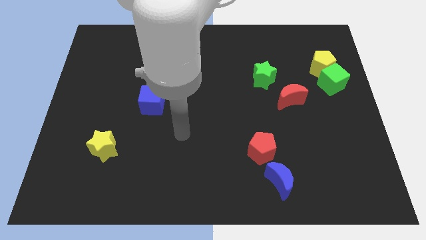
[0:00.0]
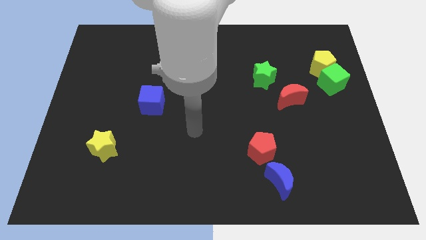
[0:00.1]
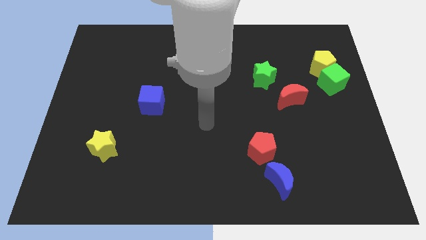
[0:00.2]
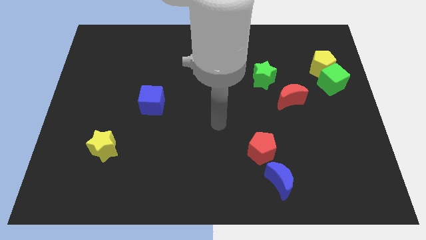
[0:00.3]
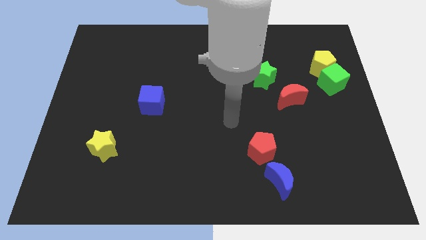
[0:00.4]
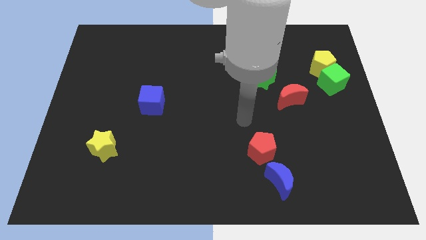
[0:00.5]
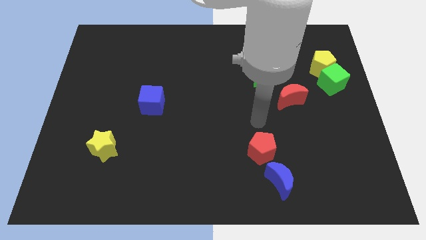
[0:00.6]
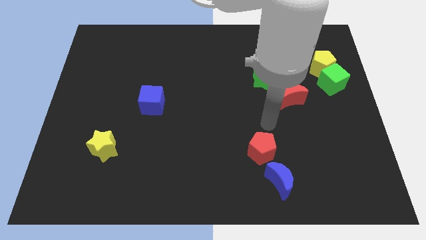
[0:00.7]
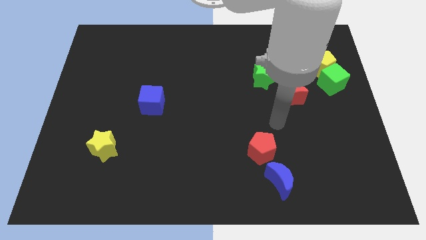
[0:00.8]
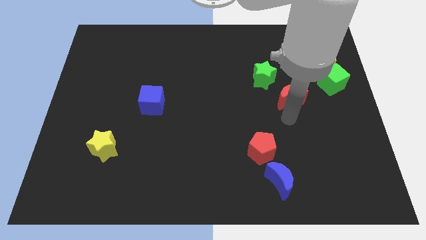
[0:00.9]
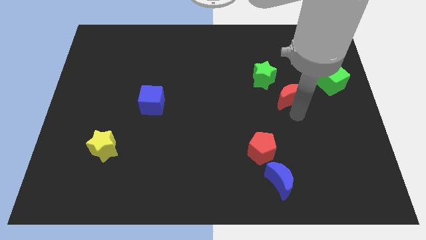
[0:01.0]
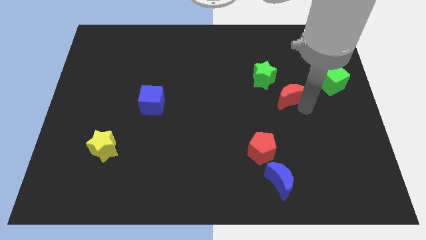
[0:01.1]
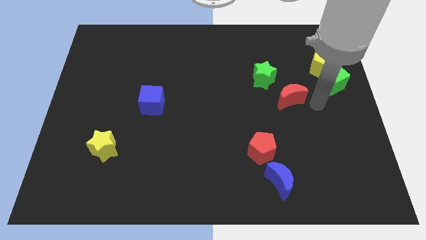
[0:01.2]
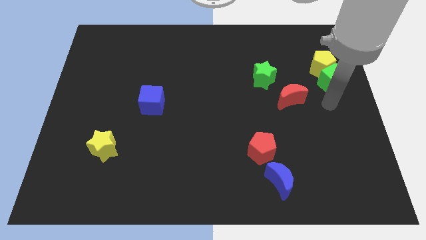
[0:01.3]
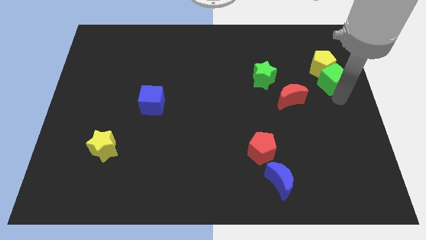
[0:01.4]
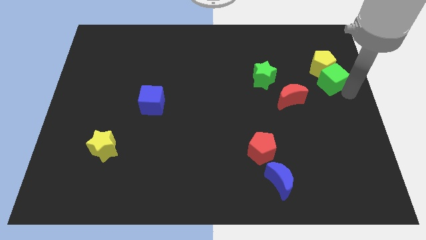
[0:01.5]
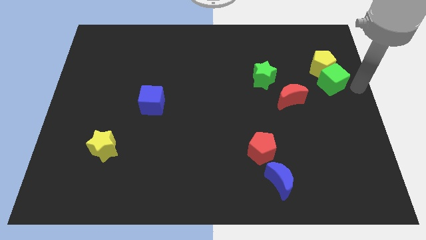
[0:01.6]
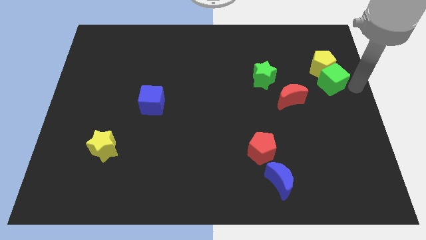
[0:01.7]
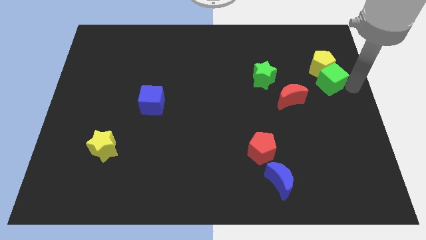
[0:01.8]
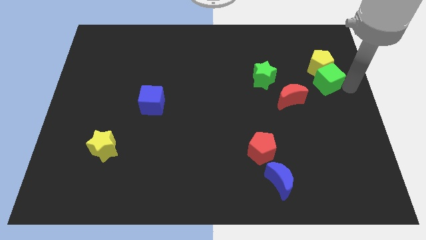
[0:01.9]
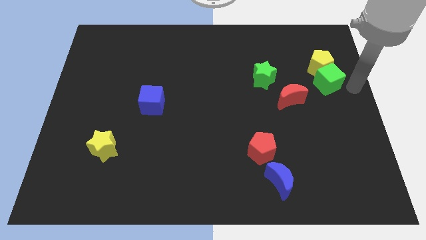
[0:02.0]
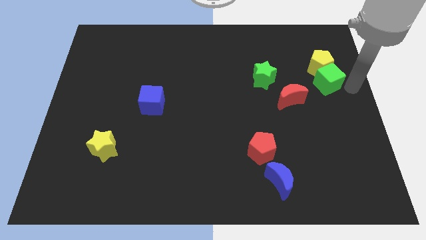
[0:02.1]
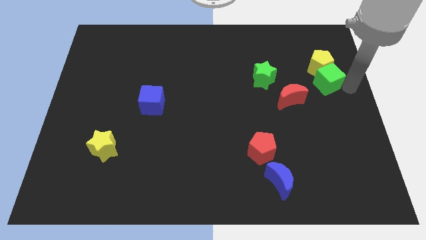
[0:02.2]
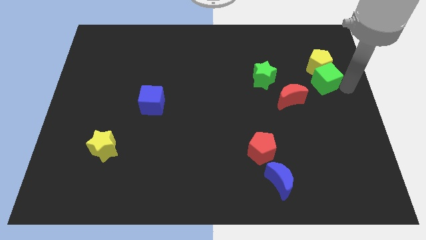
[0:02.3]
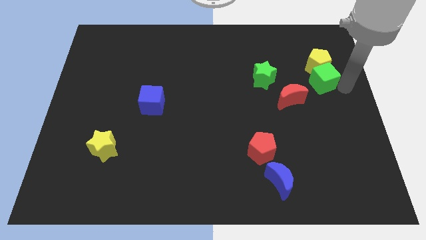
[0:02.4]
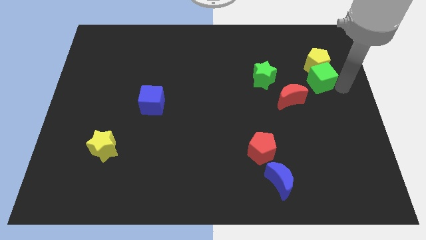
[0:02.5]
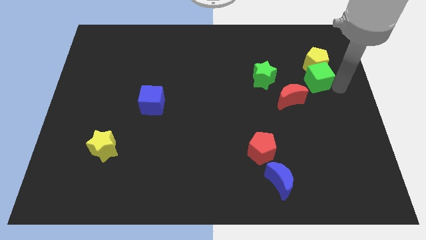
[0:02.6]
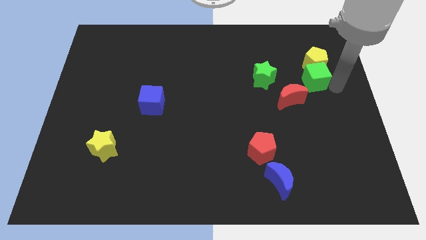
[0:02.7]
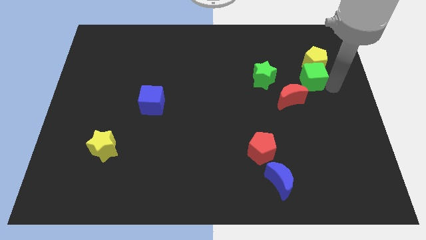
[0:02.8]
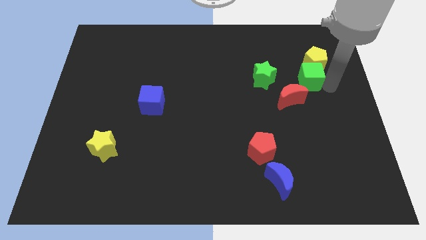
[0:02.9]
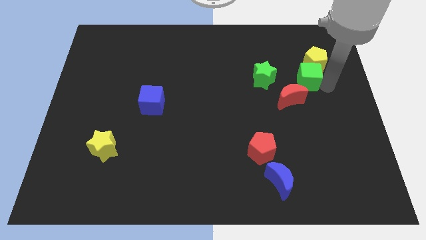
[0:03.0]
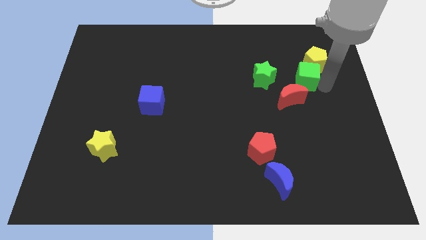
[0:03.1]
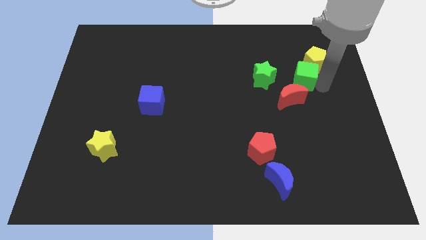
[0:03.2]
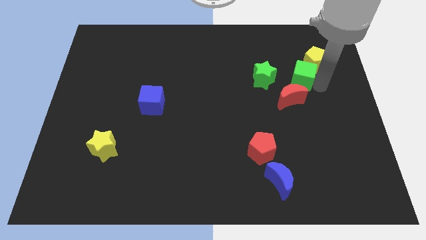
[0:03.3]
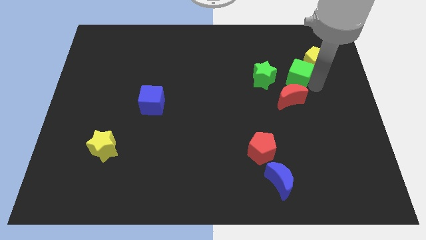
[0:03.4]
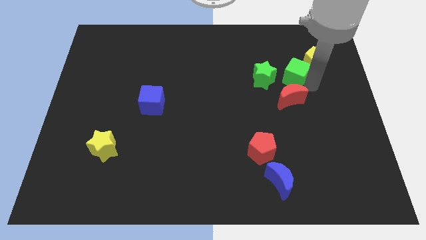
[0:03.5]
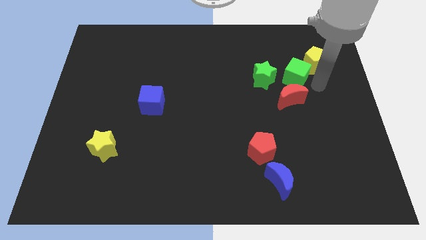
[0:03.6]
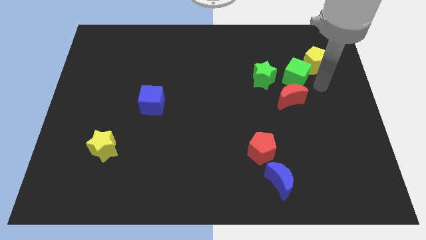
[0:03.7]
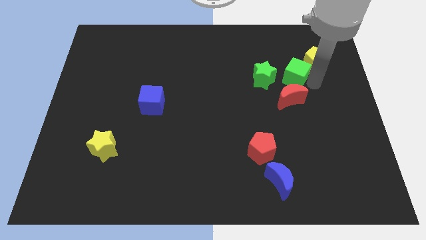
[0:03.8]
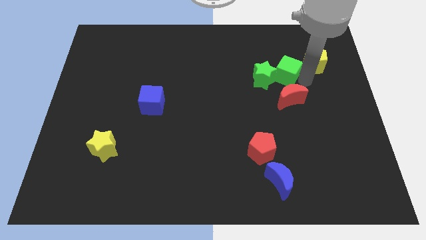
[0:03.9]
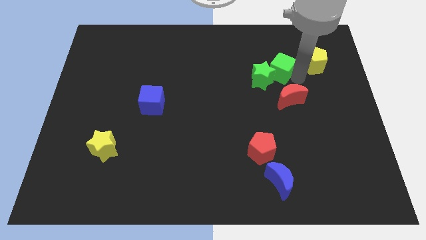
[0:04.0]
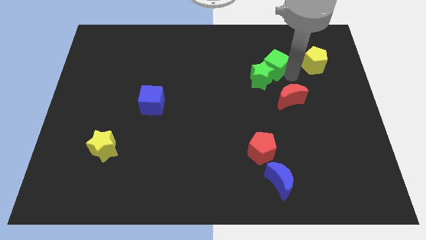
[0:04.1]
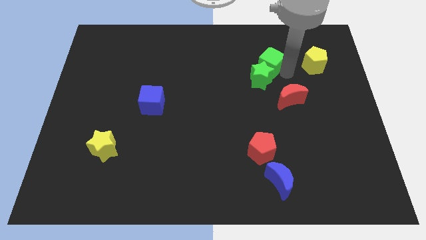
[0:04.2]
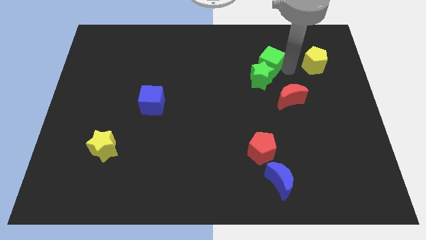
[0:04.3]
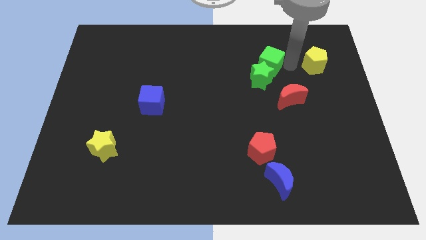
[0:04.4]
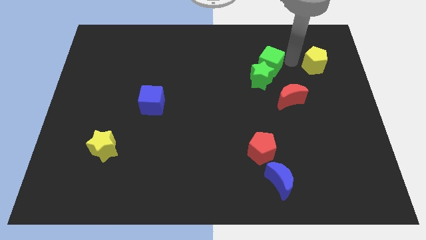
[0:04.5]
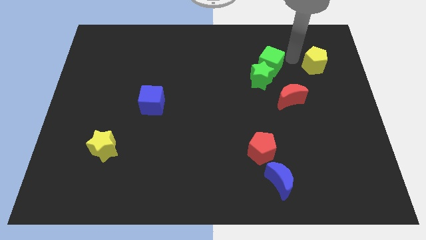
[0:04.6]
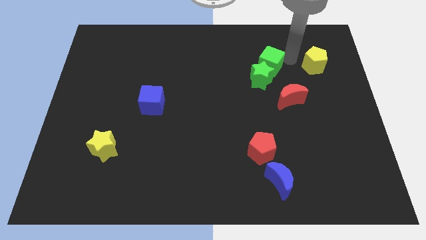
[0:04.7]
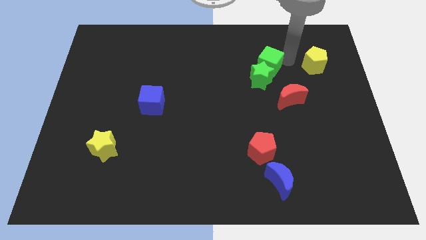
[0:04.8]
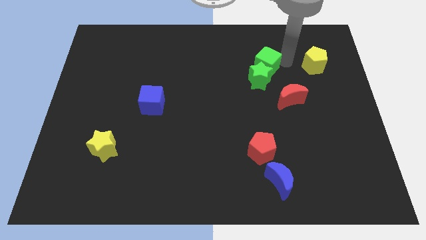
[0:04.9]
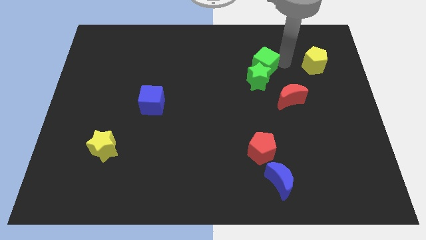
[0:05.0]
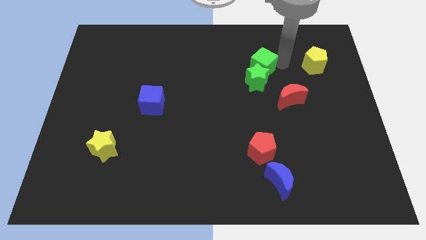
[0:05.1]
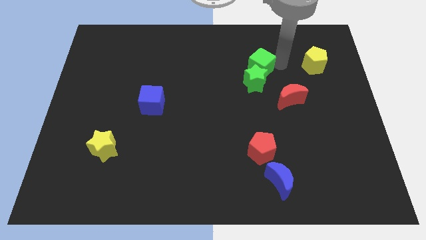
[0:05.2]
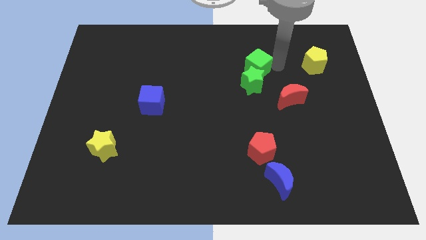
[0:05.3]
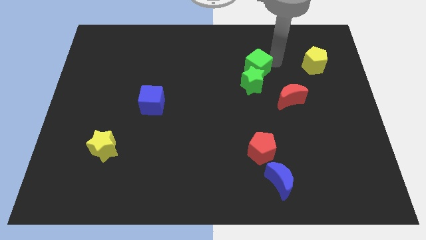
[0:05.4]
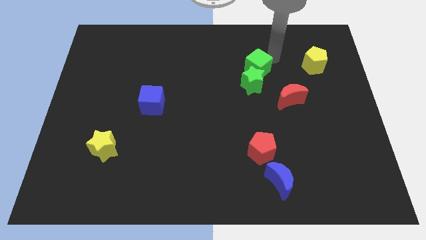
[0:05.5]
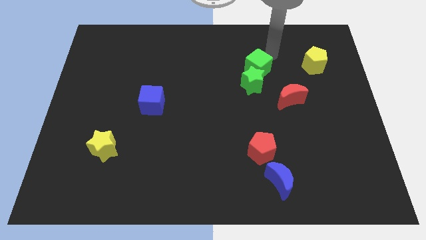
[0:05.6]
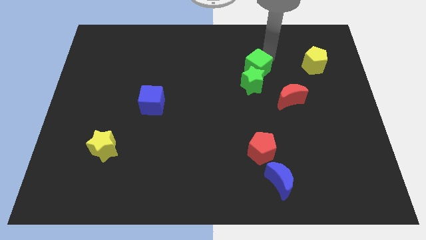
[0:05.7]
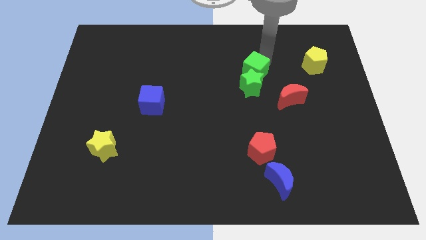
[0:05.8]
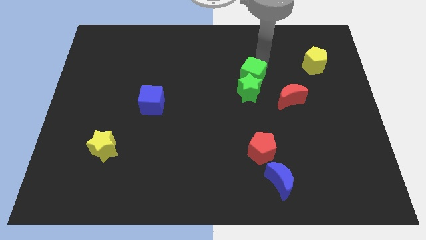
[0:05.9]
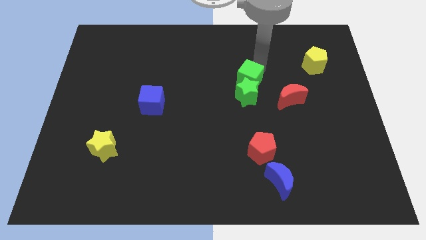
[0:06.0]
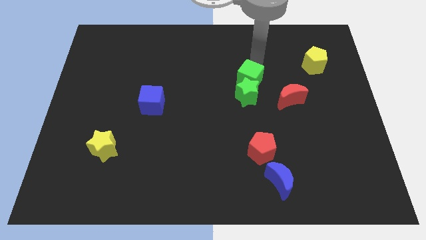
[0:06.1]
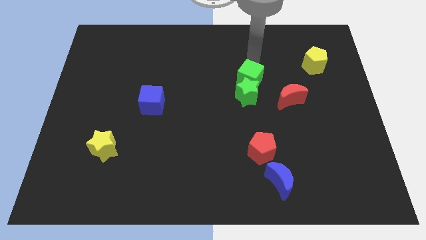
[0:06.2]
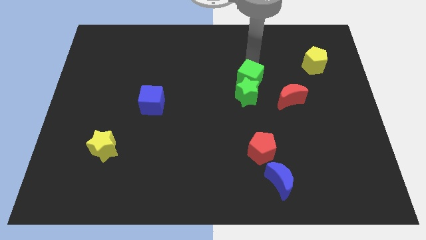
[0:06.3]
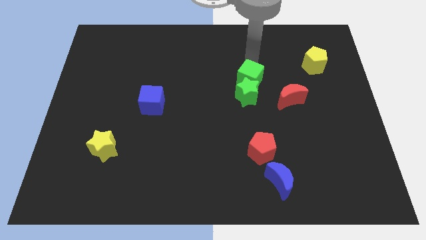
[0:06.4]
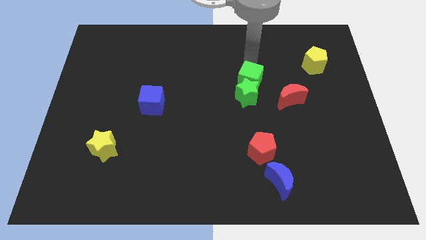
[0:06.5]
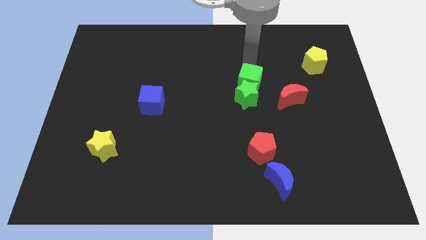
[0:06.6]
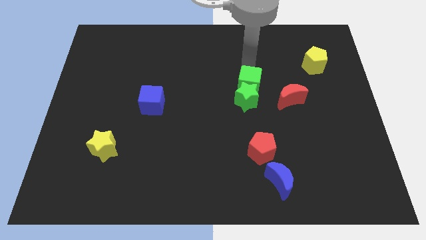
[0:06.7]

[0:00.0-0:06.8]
move the green cube to the left side of the red moon

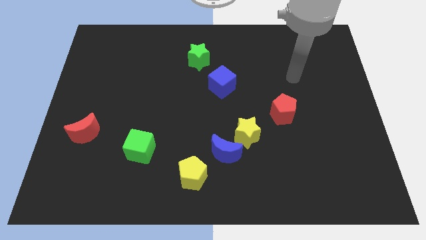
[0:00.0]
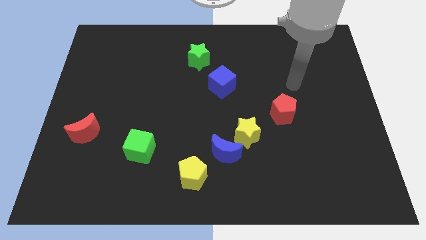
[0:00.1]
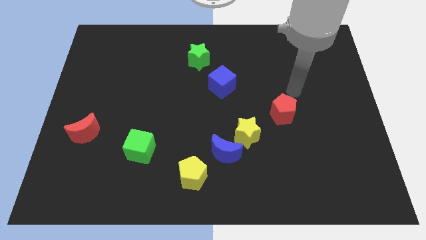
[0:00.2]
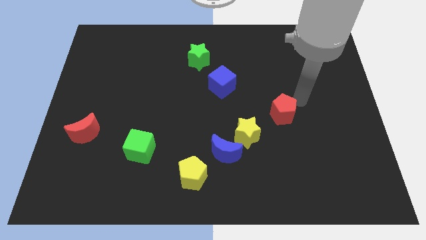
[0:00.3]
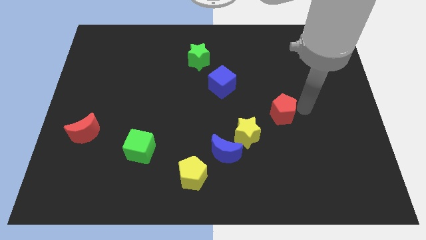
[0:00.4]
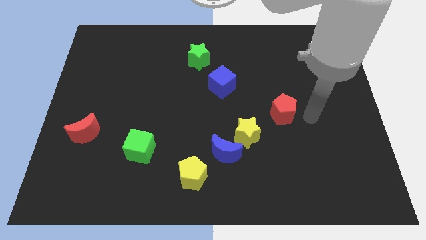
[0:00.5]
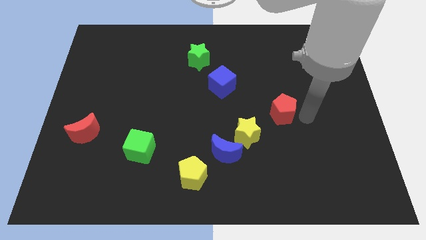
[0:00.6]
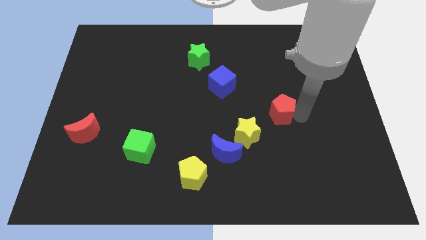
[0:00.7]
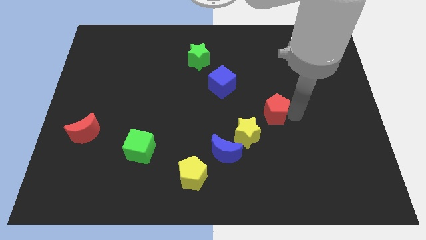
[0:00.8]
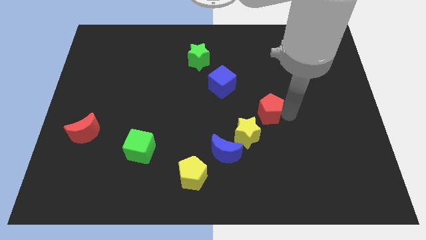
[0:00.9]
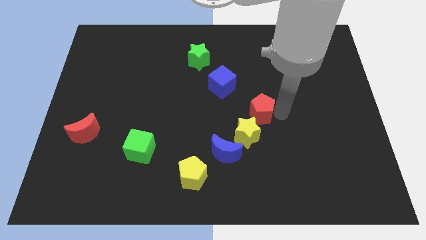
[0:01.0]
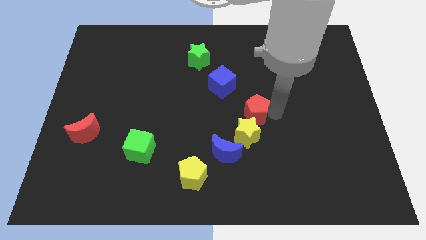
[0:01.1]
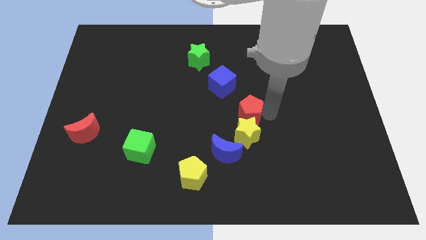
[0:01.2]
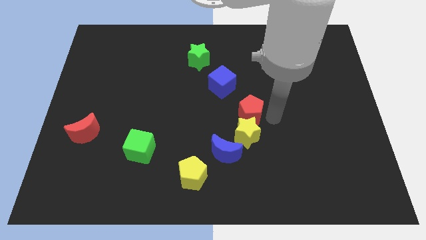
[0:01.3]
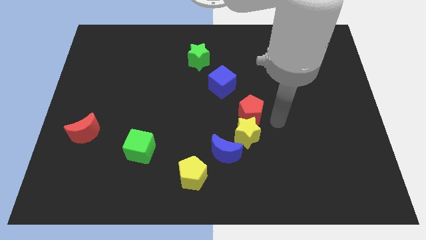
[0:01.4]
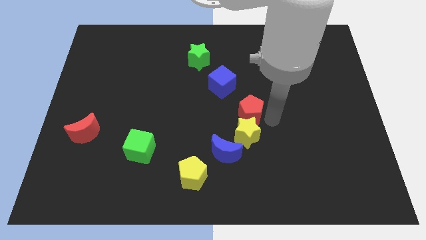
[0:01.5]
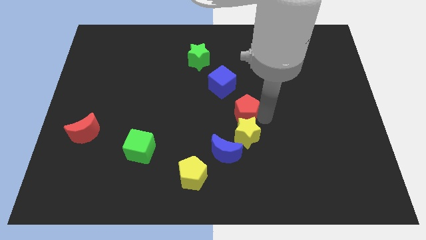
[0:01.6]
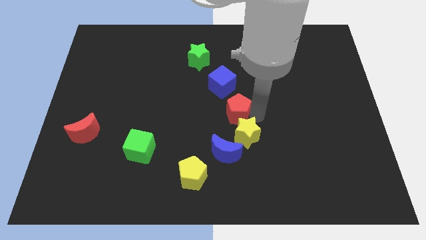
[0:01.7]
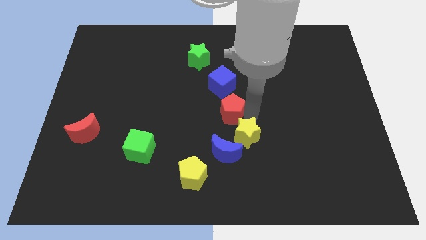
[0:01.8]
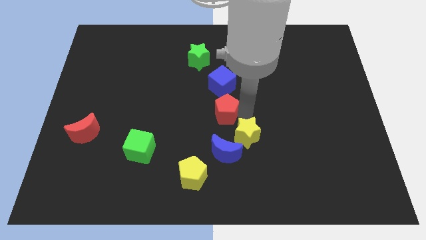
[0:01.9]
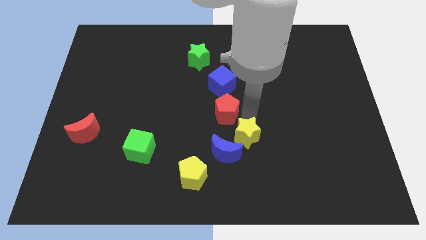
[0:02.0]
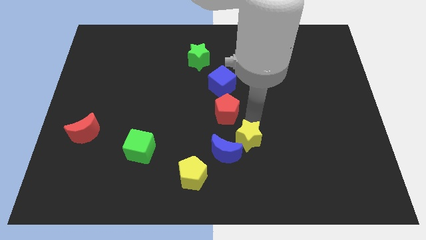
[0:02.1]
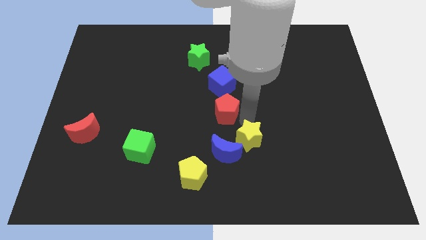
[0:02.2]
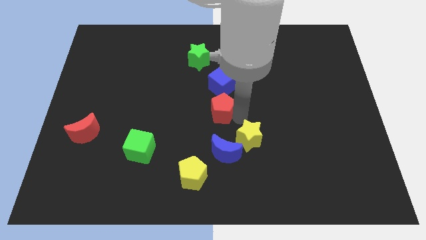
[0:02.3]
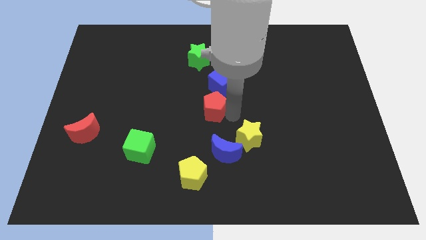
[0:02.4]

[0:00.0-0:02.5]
push the red pentagon to the bottom left side of the blue cube
